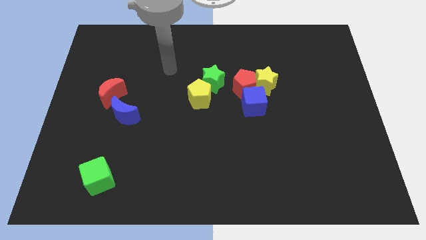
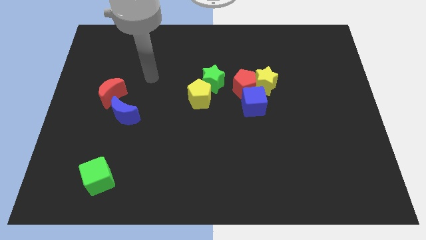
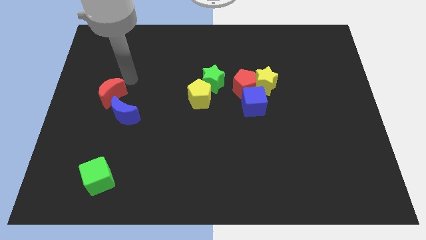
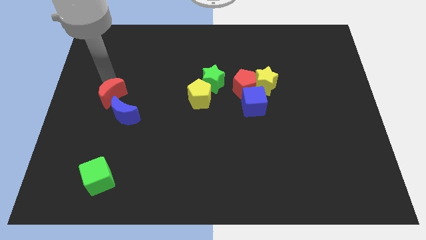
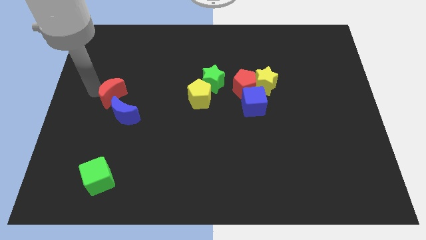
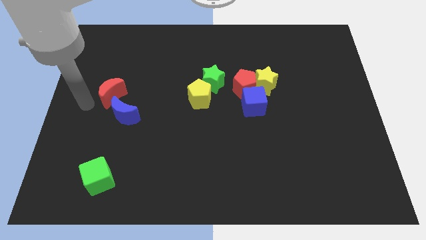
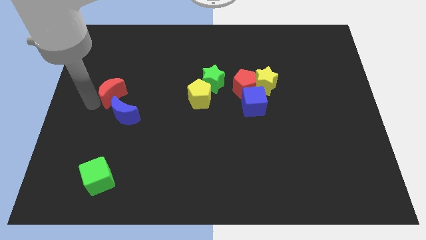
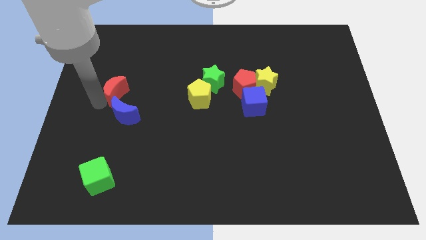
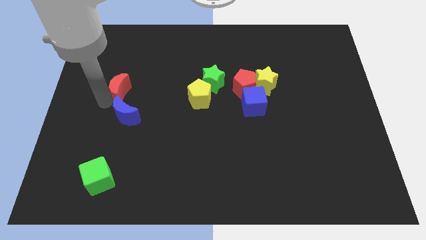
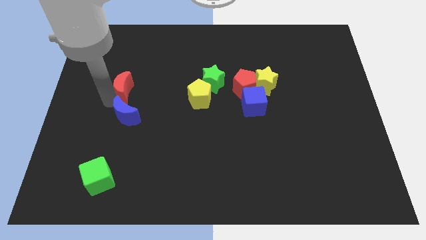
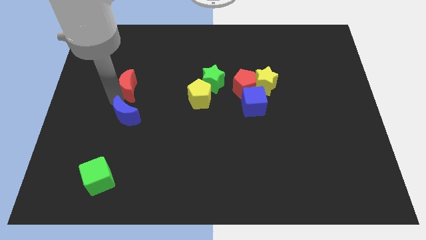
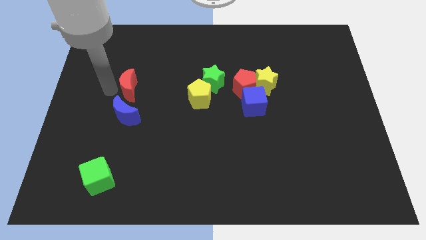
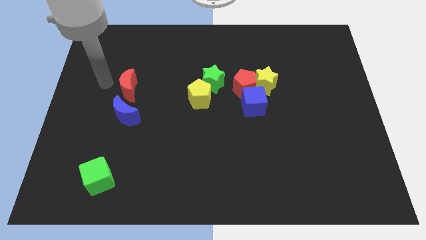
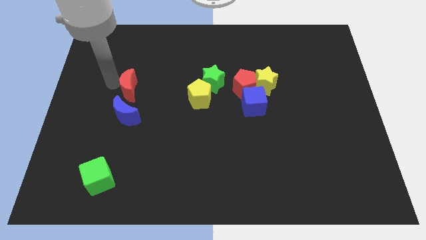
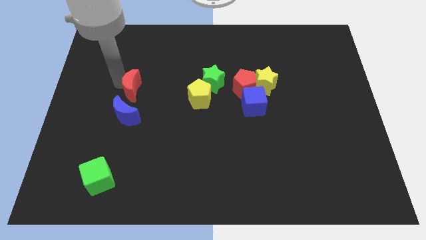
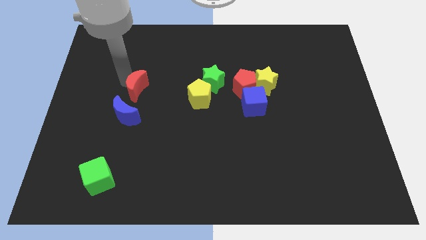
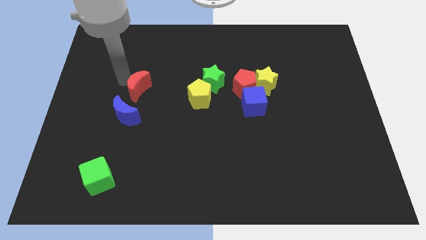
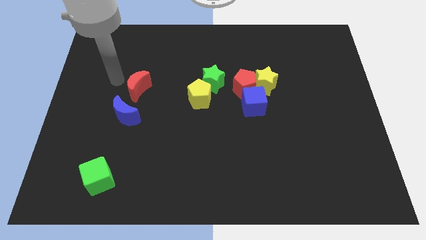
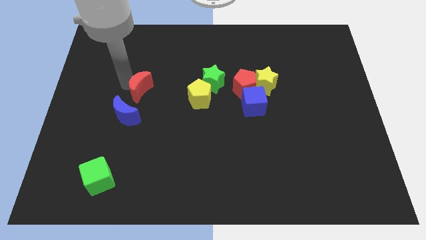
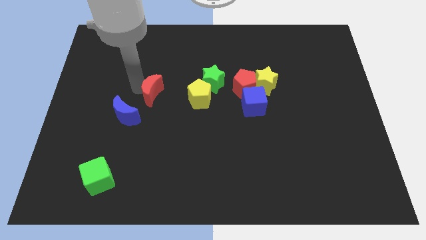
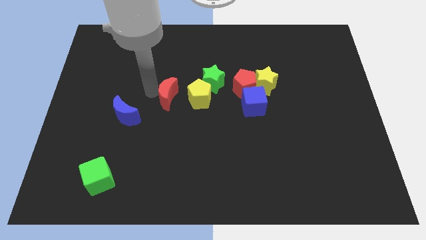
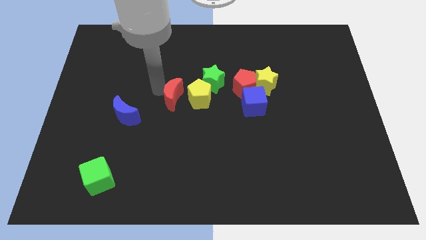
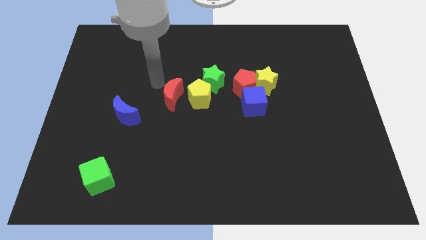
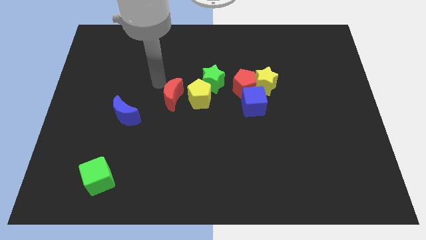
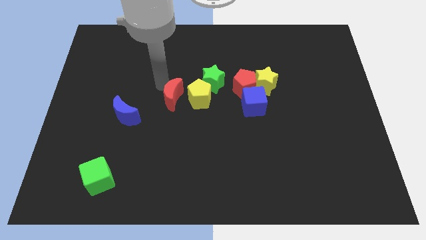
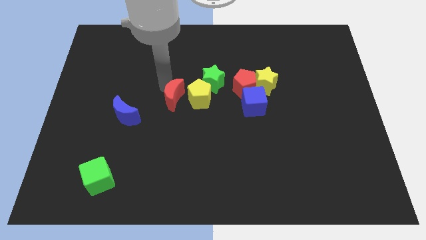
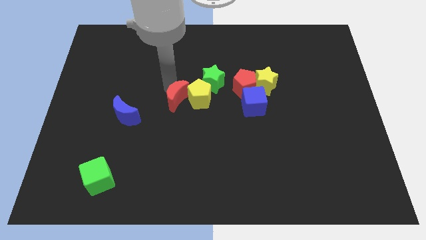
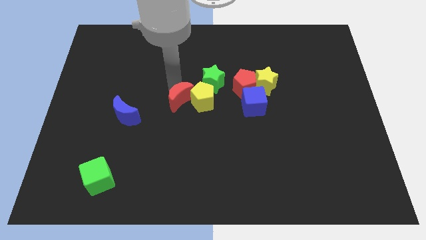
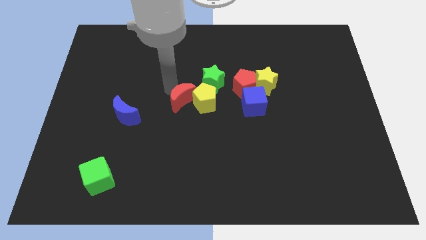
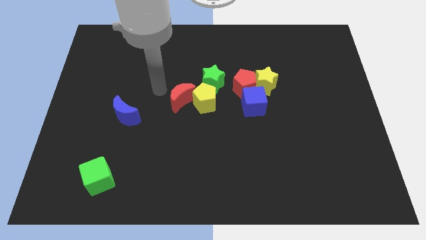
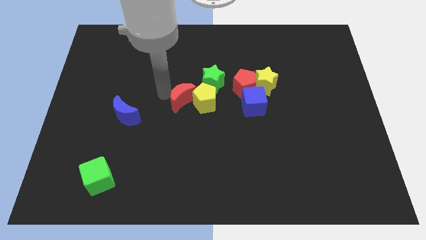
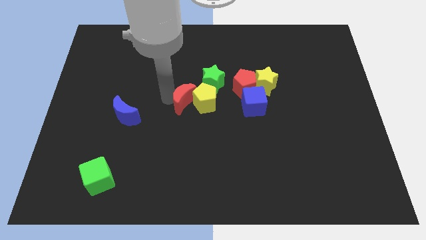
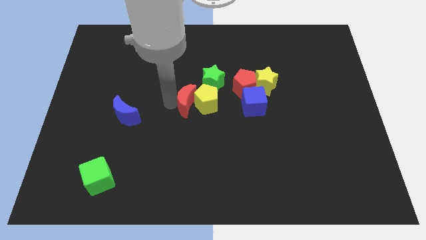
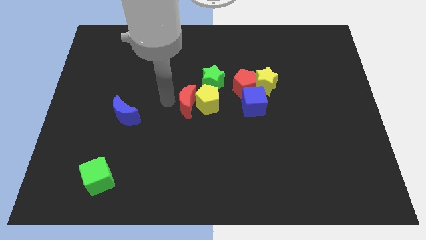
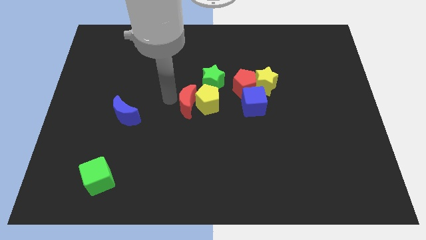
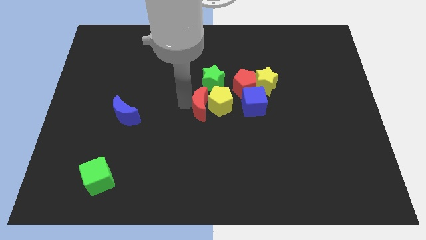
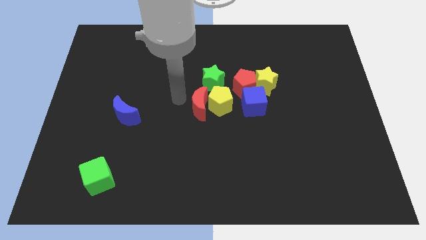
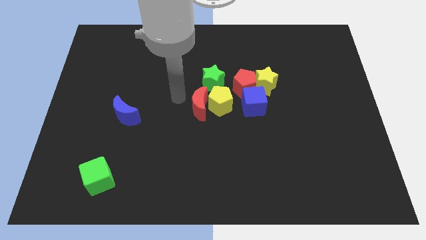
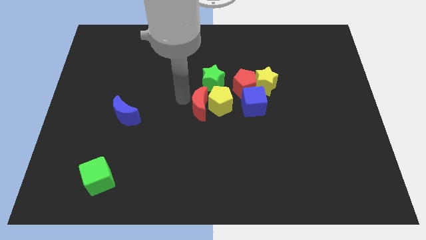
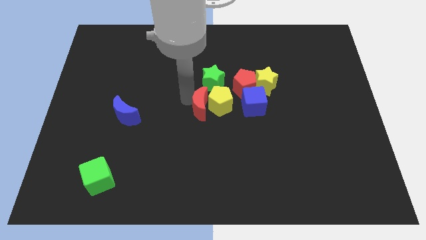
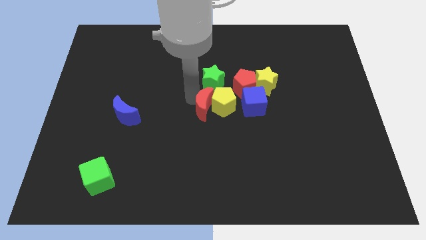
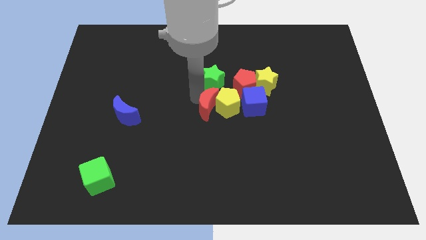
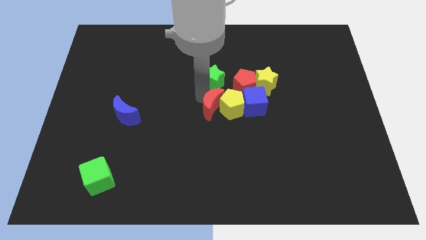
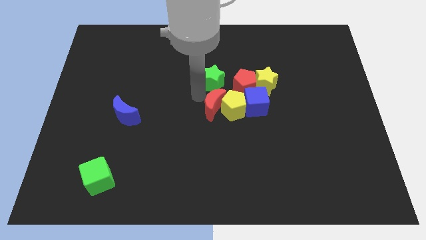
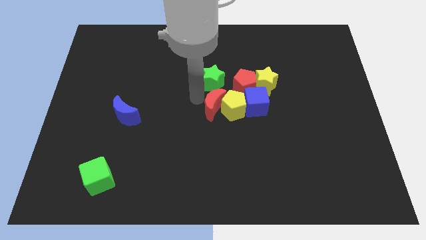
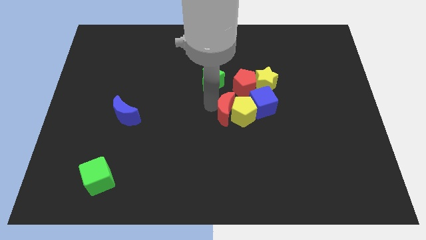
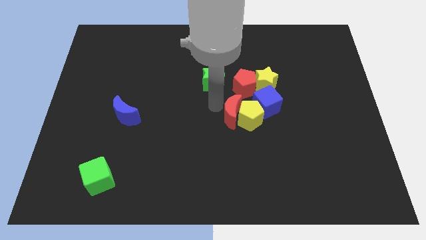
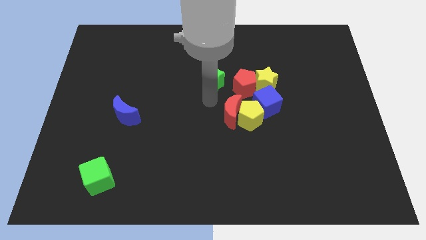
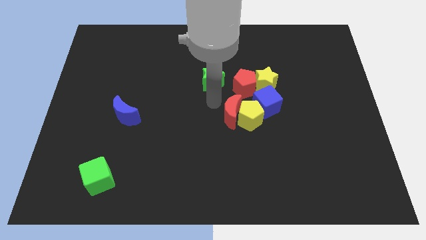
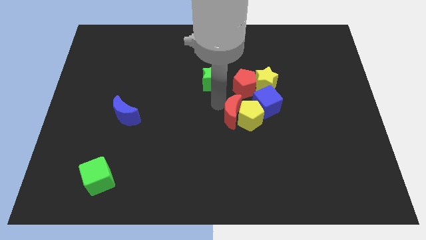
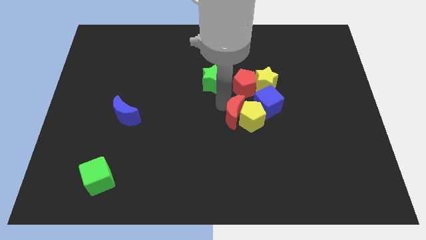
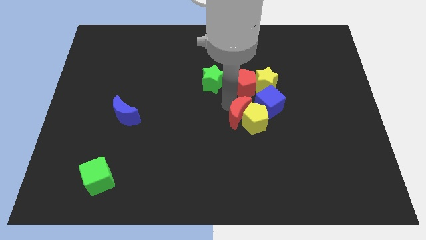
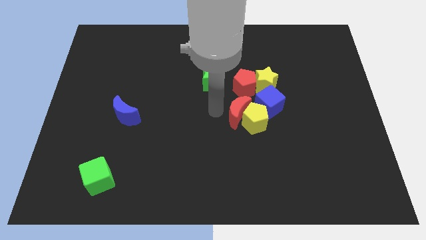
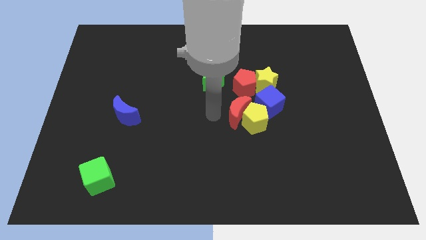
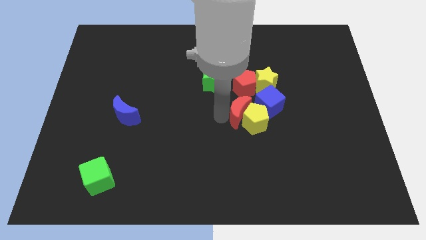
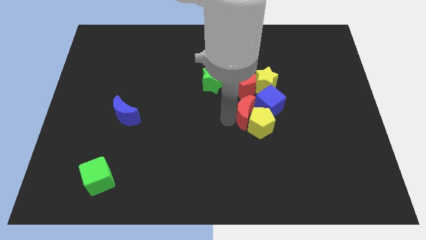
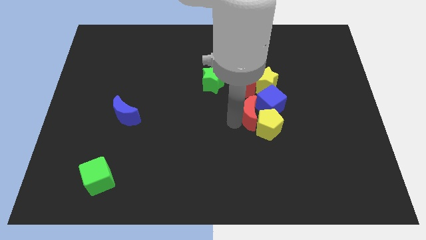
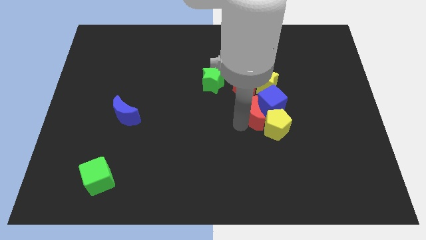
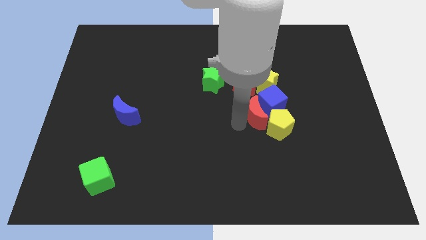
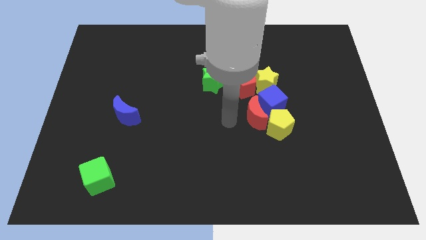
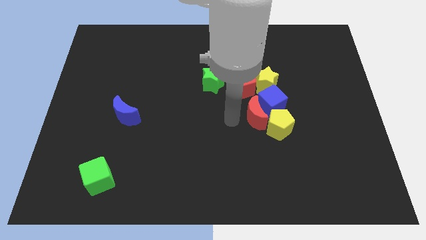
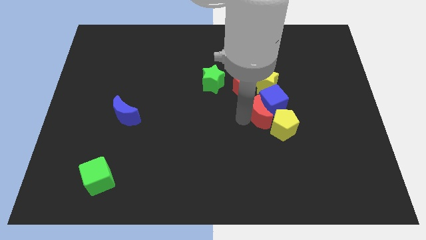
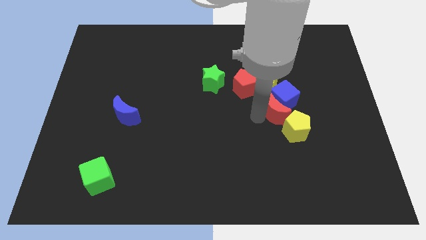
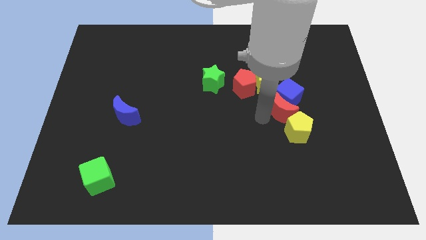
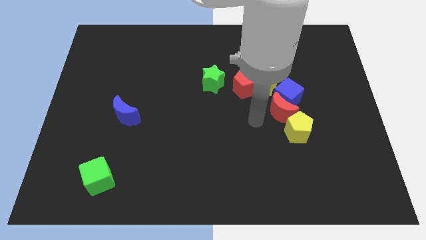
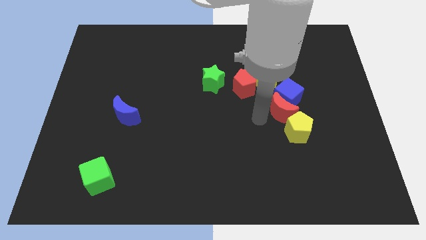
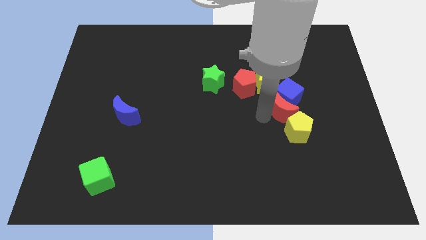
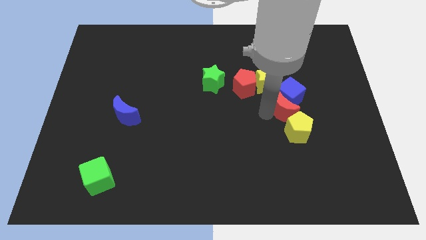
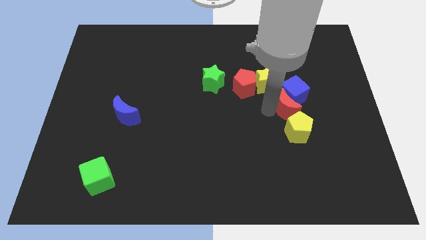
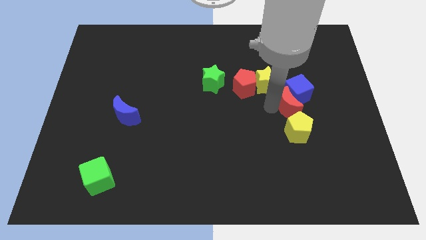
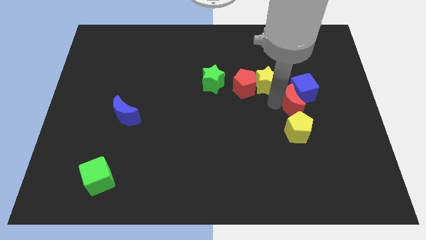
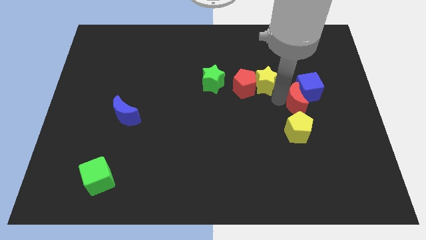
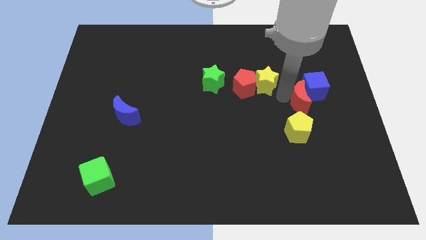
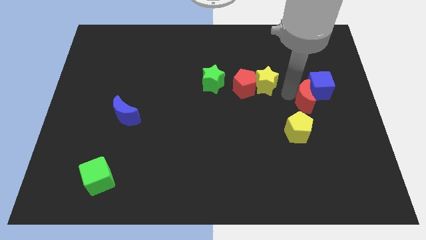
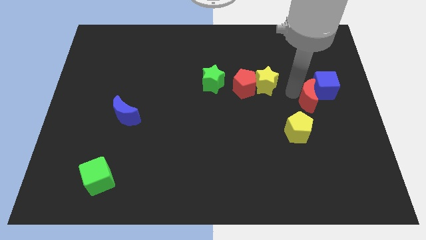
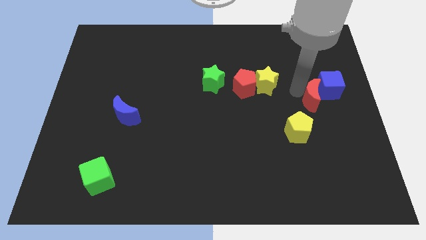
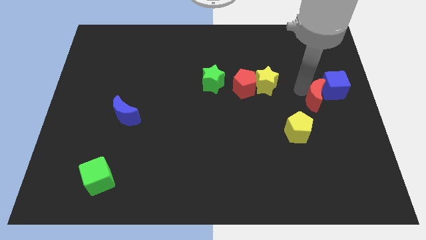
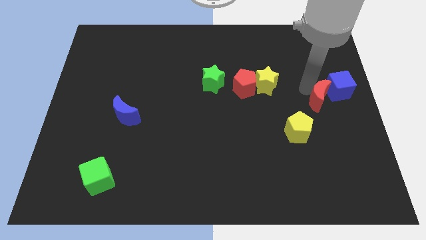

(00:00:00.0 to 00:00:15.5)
slide the red moon to the right side
